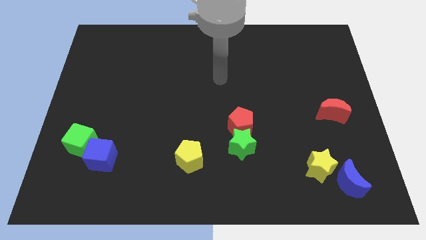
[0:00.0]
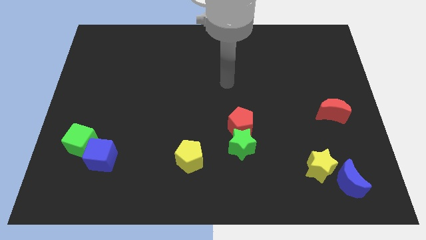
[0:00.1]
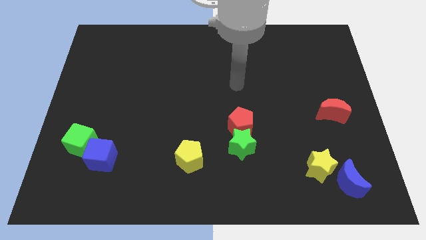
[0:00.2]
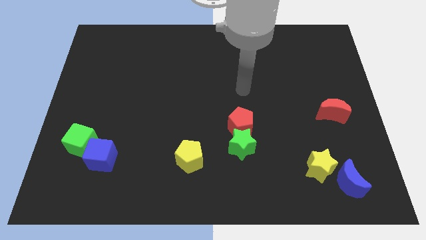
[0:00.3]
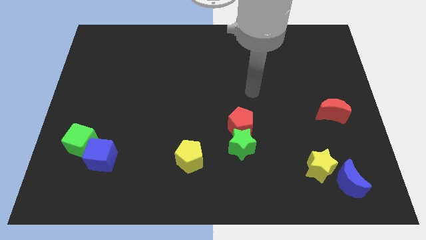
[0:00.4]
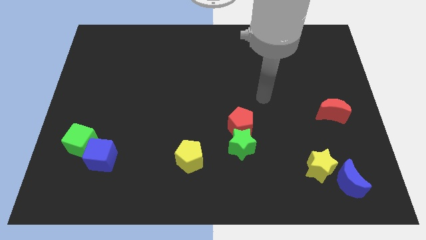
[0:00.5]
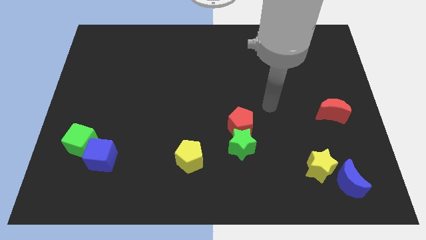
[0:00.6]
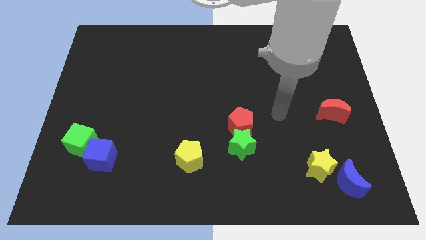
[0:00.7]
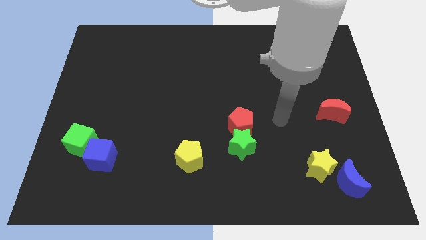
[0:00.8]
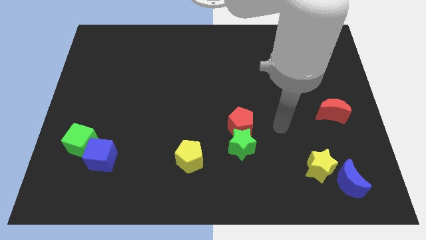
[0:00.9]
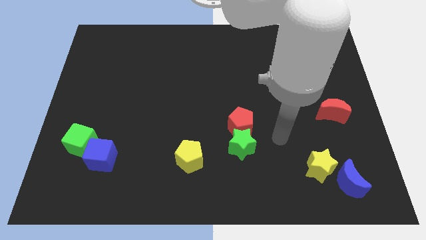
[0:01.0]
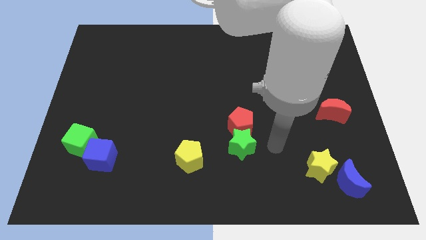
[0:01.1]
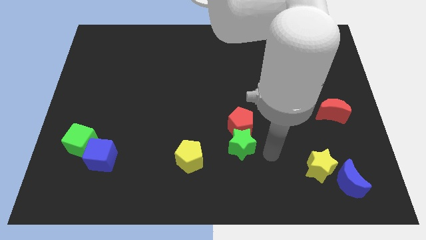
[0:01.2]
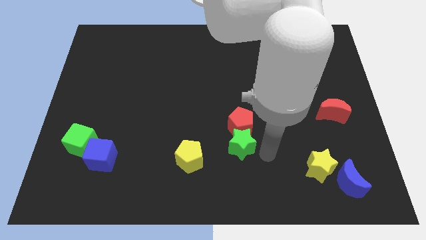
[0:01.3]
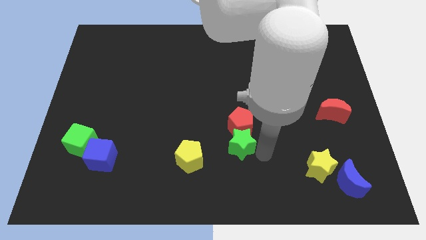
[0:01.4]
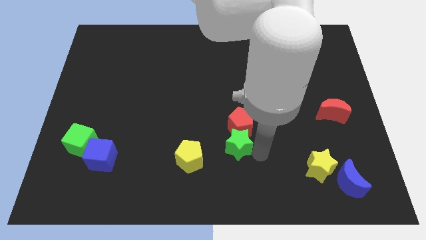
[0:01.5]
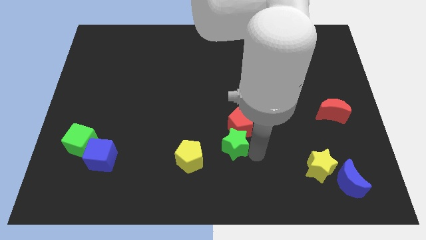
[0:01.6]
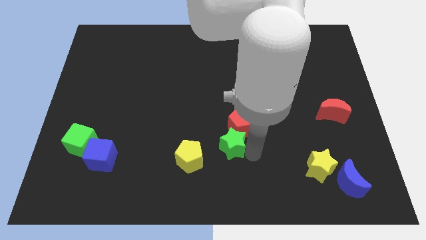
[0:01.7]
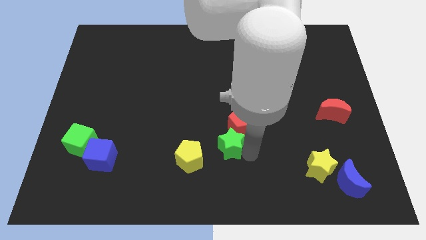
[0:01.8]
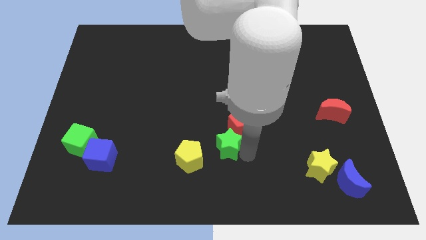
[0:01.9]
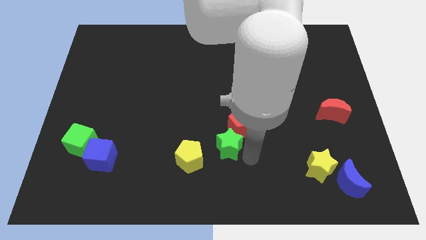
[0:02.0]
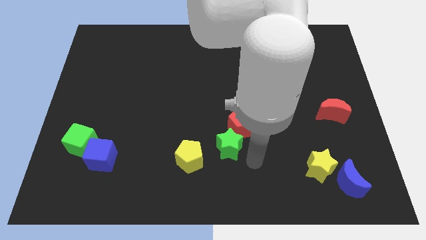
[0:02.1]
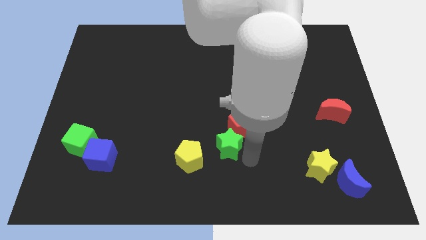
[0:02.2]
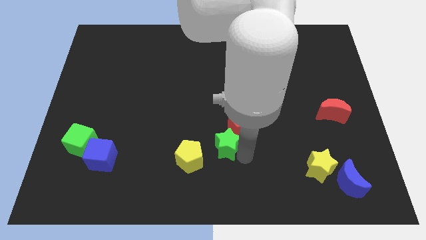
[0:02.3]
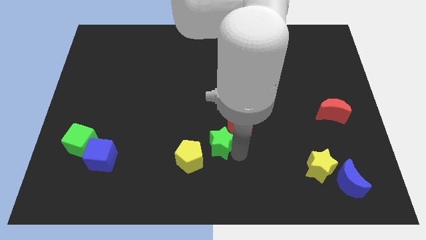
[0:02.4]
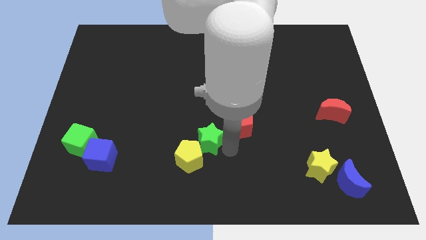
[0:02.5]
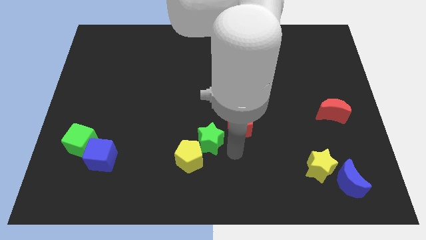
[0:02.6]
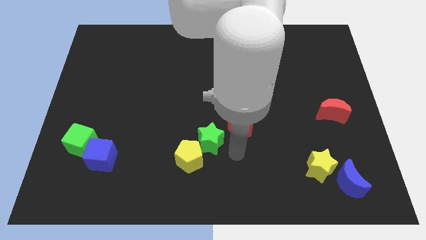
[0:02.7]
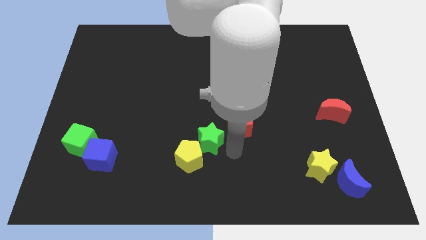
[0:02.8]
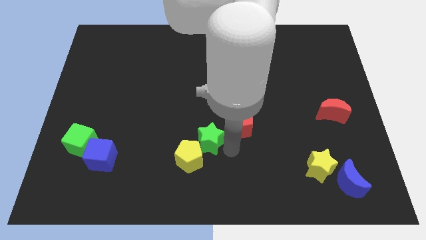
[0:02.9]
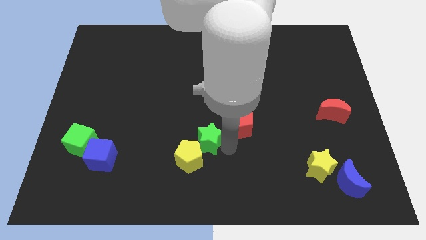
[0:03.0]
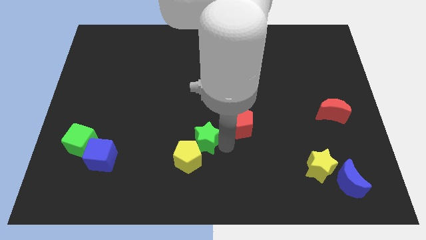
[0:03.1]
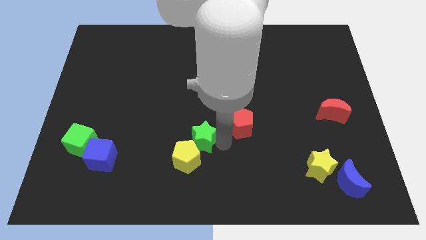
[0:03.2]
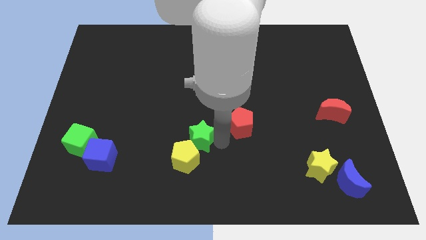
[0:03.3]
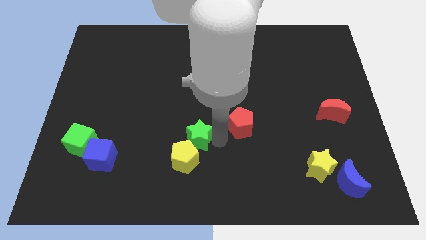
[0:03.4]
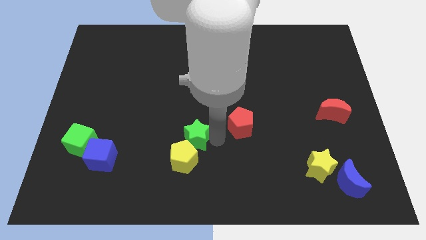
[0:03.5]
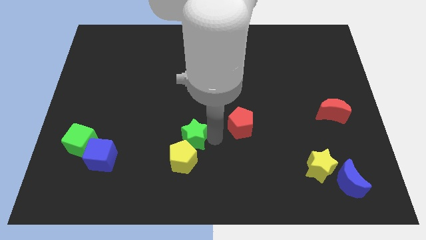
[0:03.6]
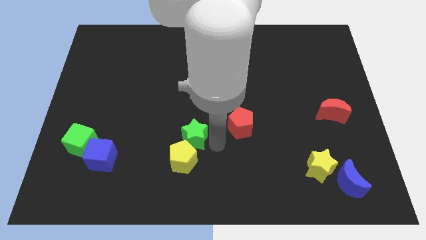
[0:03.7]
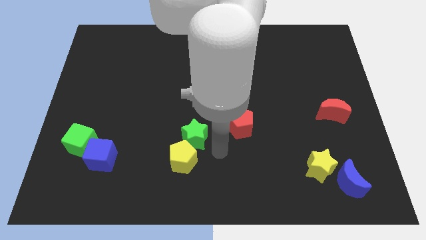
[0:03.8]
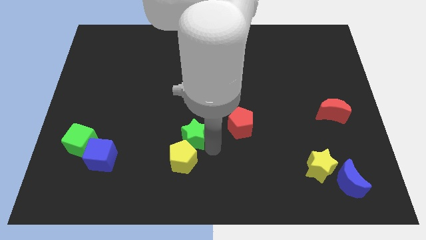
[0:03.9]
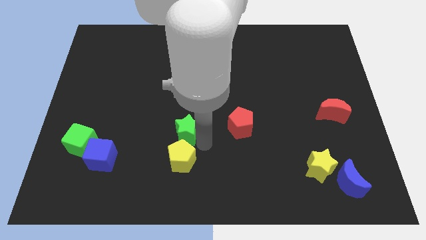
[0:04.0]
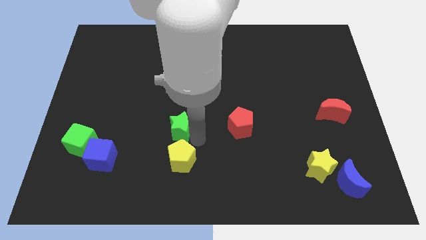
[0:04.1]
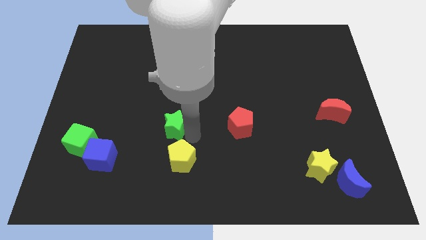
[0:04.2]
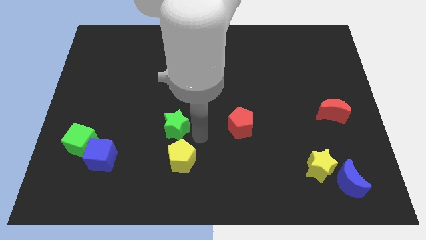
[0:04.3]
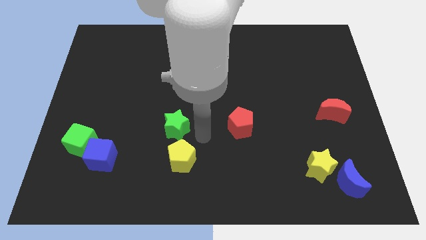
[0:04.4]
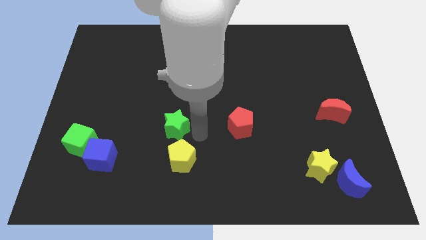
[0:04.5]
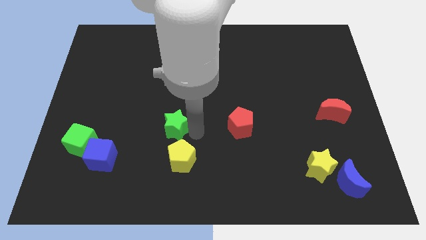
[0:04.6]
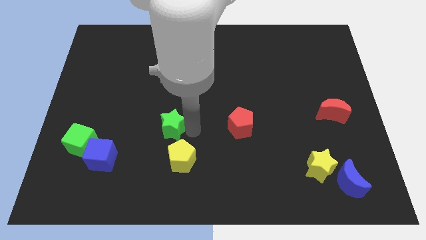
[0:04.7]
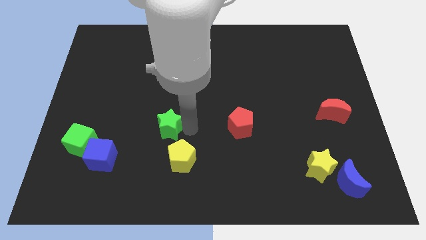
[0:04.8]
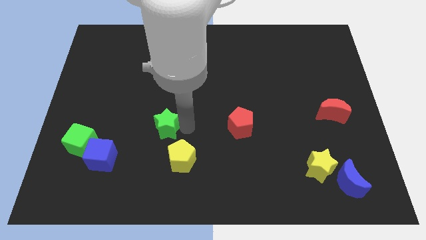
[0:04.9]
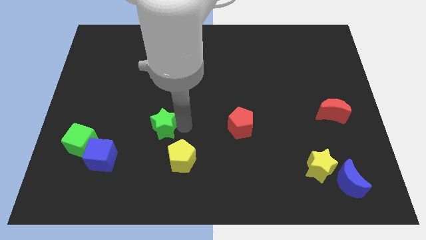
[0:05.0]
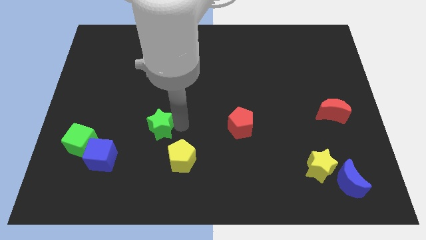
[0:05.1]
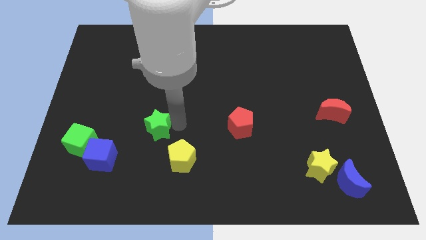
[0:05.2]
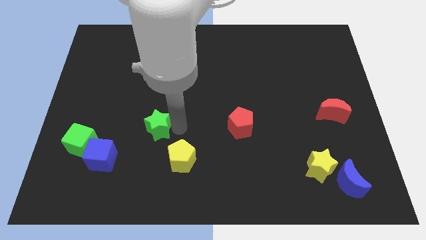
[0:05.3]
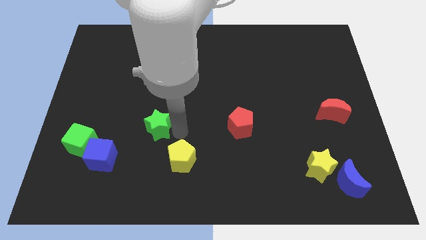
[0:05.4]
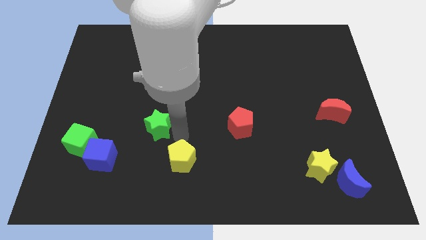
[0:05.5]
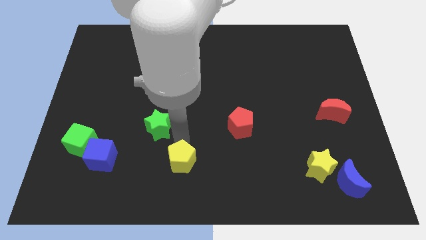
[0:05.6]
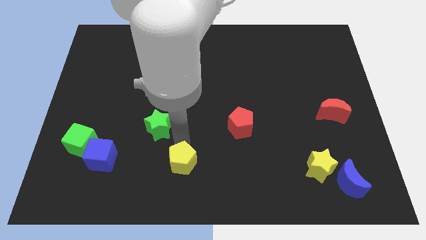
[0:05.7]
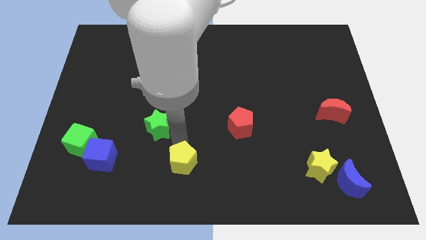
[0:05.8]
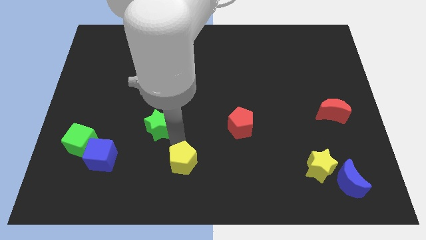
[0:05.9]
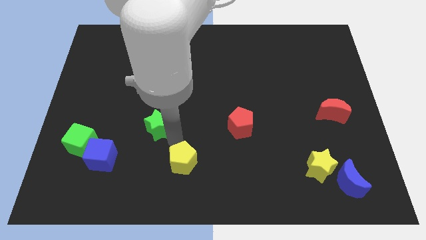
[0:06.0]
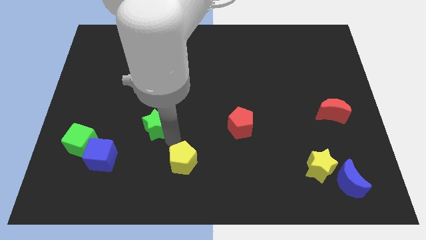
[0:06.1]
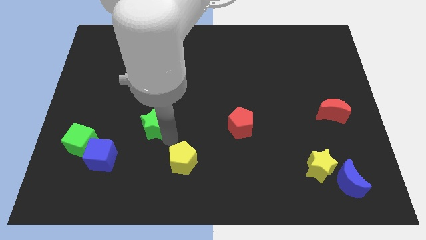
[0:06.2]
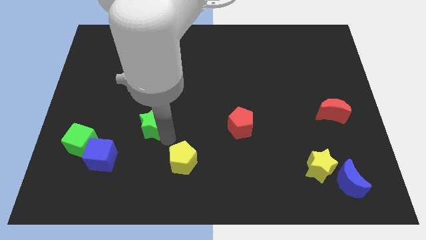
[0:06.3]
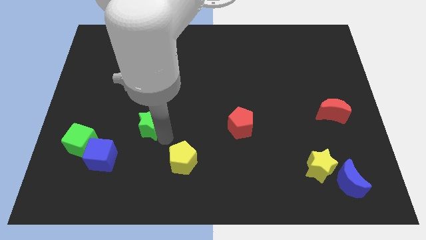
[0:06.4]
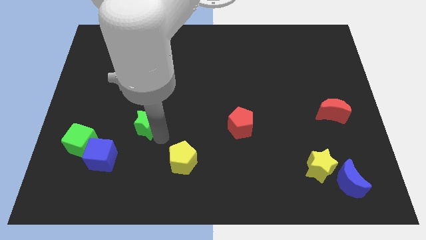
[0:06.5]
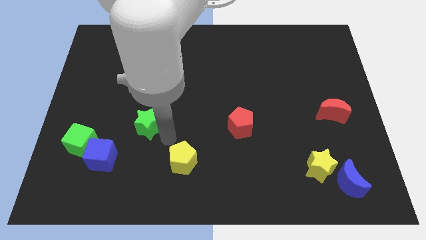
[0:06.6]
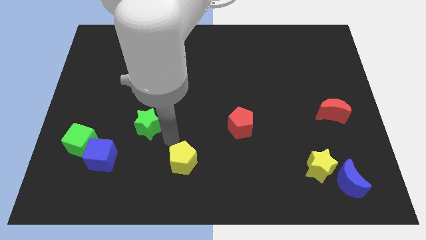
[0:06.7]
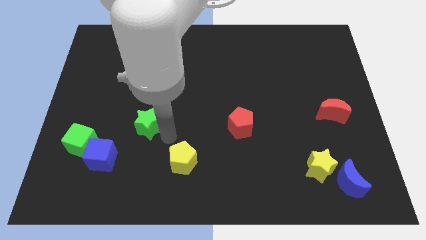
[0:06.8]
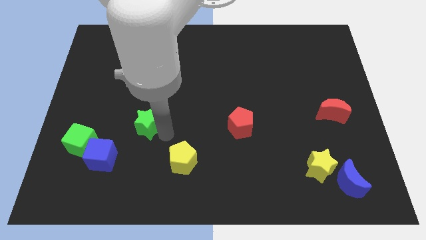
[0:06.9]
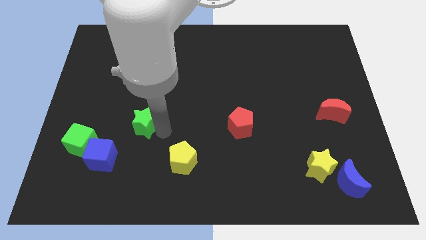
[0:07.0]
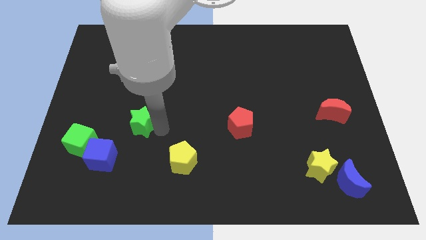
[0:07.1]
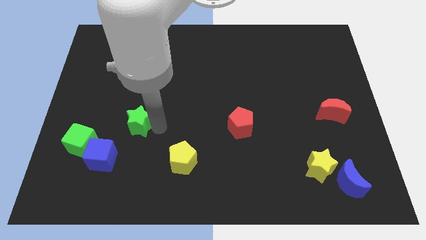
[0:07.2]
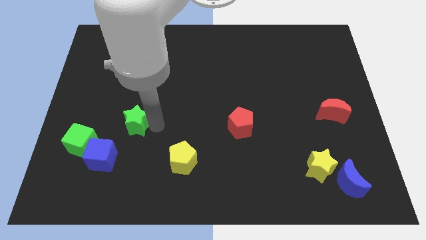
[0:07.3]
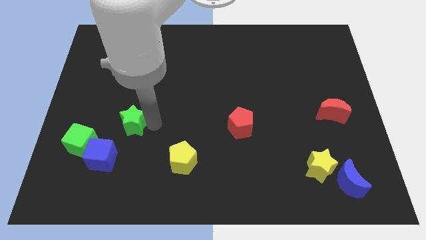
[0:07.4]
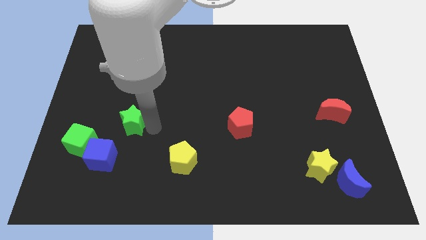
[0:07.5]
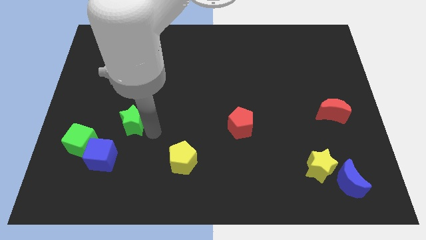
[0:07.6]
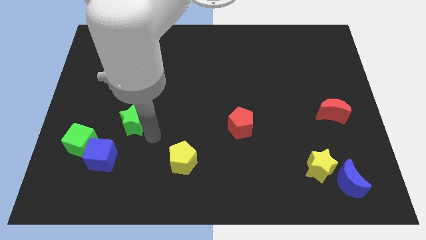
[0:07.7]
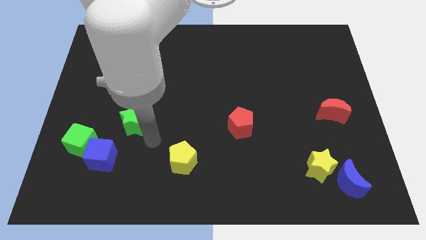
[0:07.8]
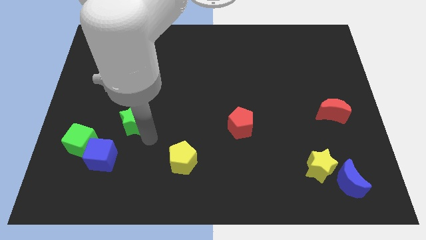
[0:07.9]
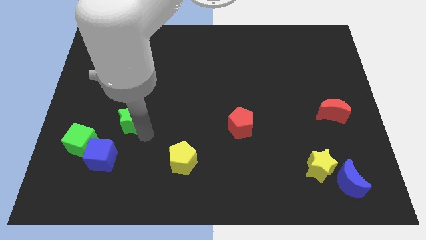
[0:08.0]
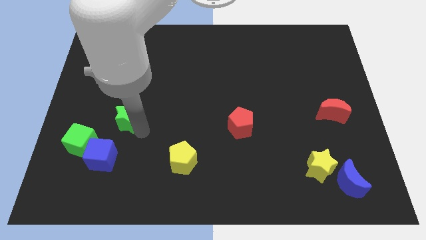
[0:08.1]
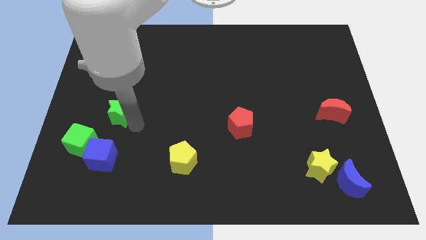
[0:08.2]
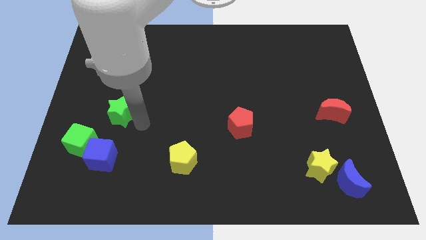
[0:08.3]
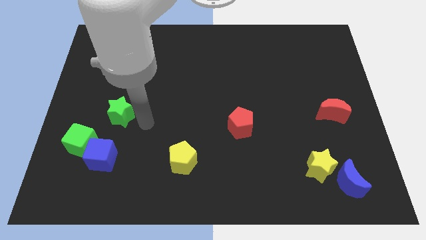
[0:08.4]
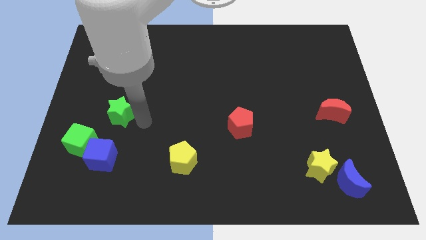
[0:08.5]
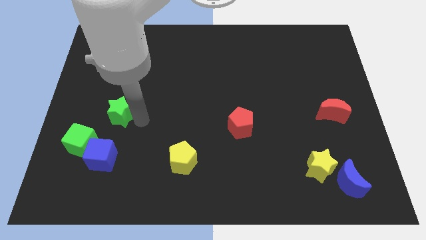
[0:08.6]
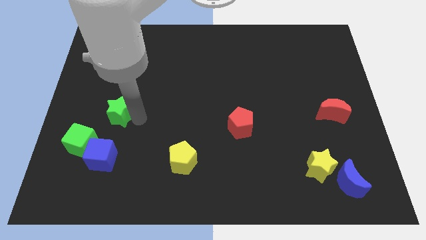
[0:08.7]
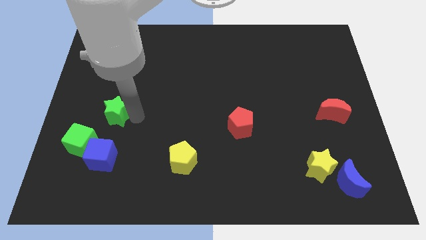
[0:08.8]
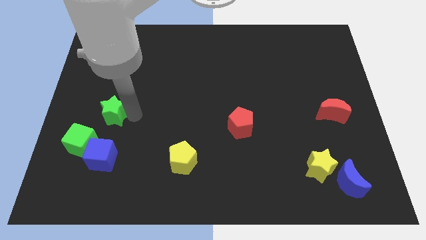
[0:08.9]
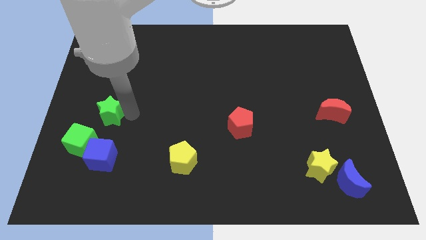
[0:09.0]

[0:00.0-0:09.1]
slide the green star above the green cube
